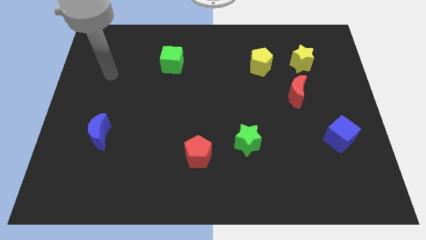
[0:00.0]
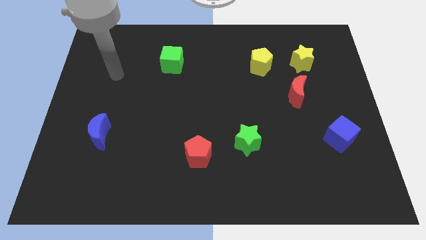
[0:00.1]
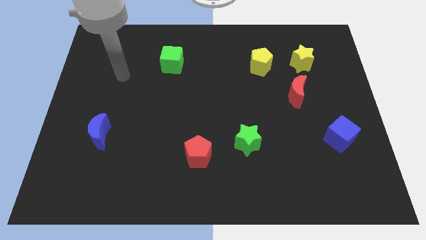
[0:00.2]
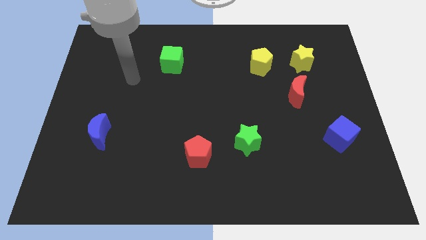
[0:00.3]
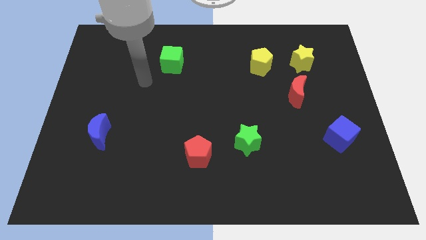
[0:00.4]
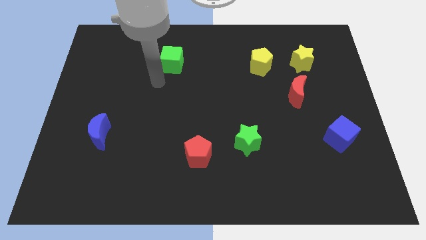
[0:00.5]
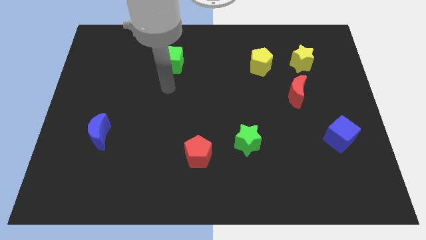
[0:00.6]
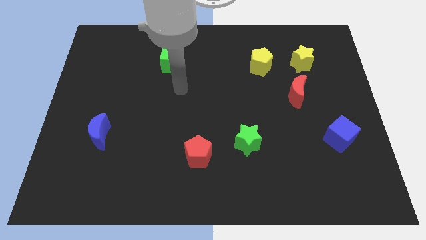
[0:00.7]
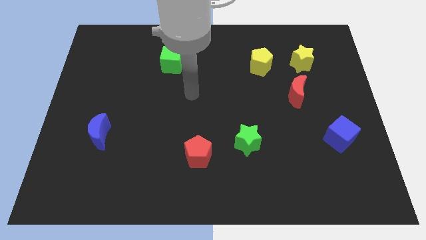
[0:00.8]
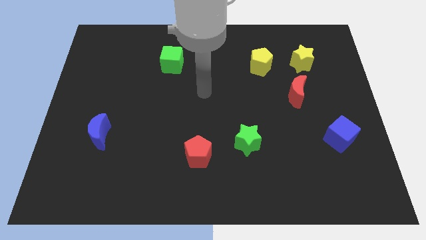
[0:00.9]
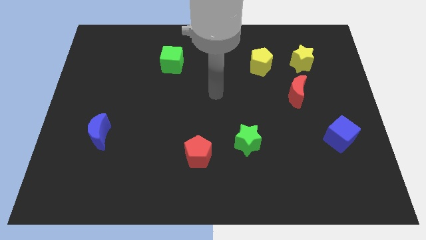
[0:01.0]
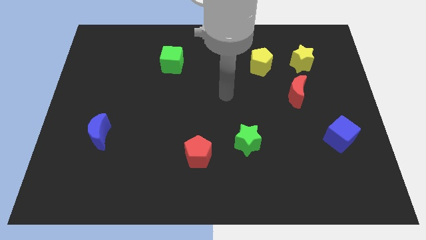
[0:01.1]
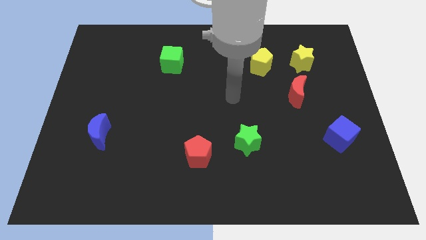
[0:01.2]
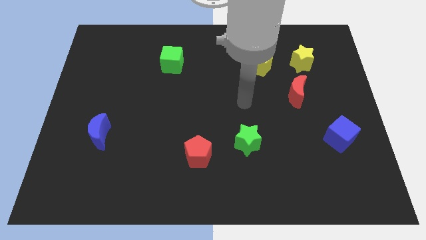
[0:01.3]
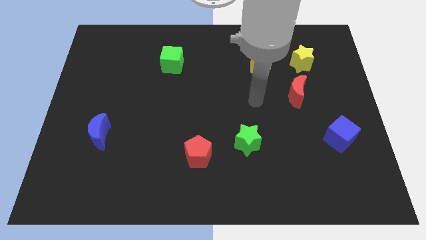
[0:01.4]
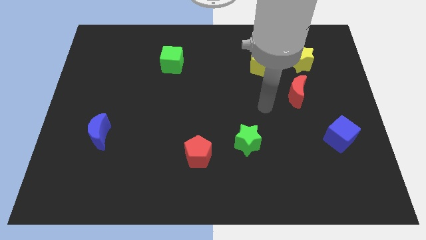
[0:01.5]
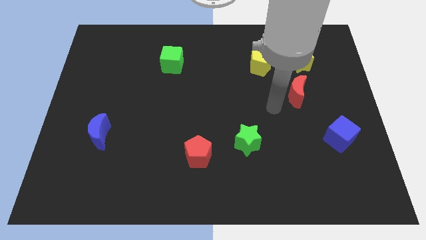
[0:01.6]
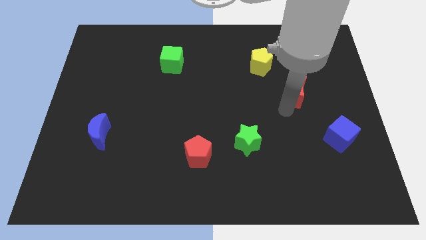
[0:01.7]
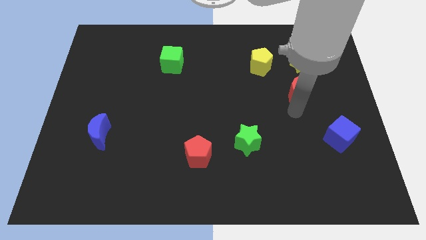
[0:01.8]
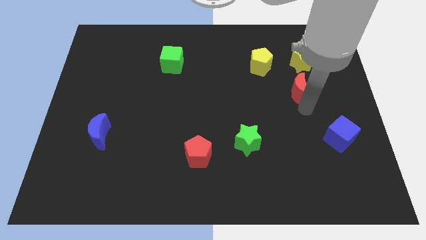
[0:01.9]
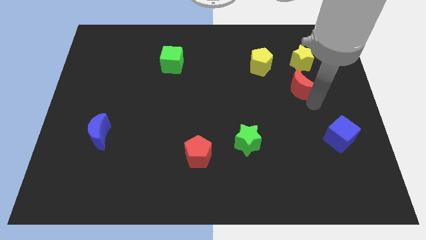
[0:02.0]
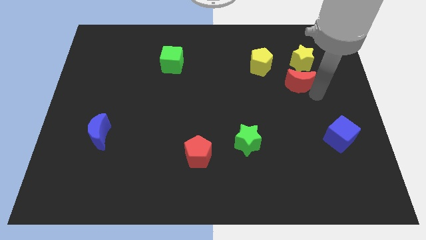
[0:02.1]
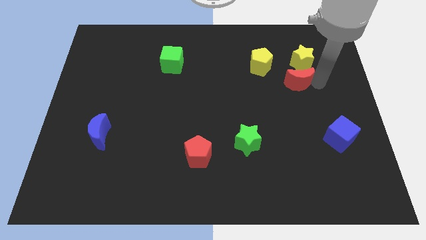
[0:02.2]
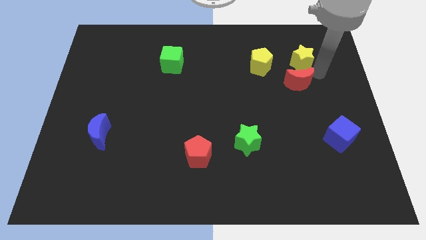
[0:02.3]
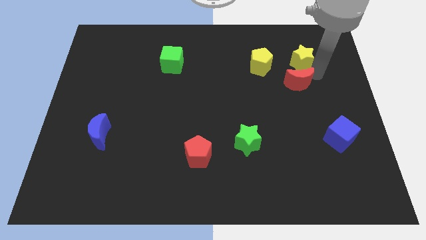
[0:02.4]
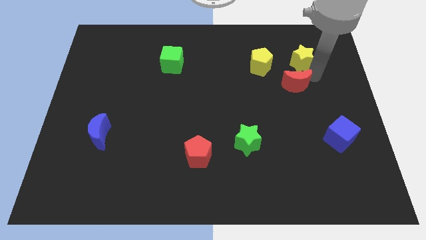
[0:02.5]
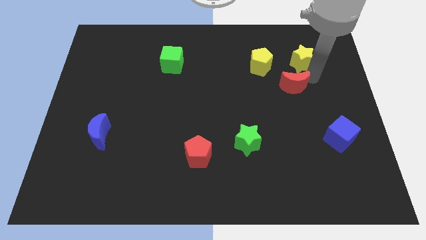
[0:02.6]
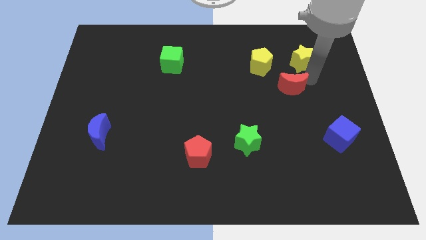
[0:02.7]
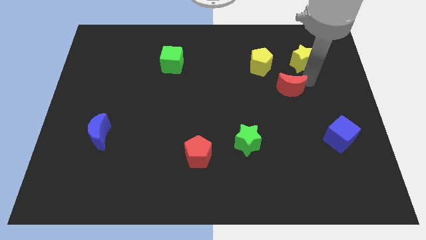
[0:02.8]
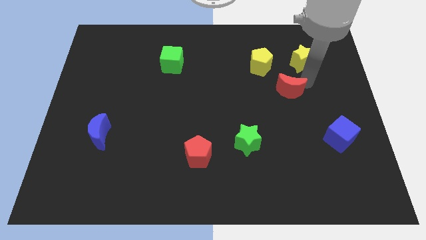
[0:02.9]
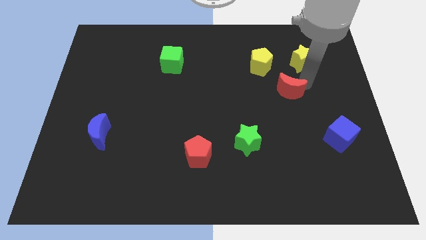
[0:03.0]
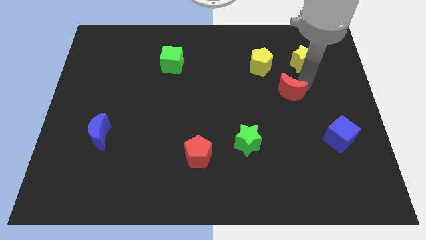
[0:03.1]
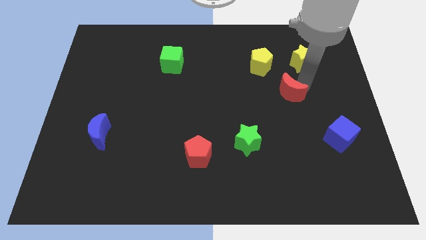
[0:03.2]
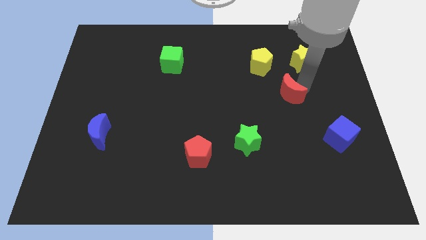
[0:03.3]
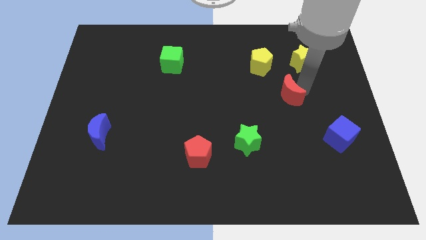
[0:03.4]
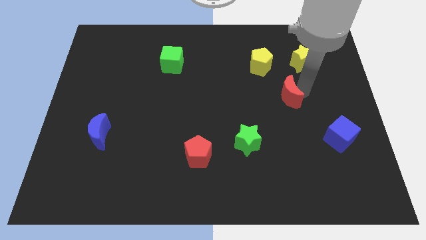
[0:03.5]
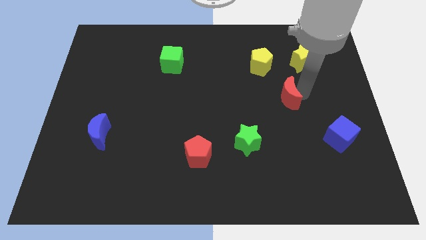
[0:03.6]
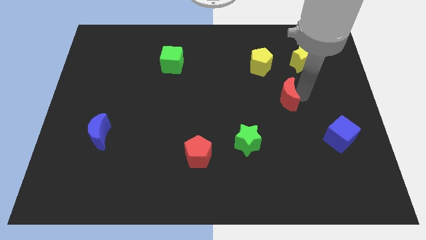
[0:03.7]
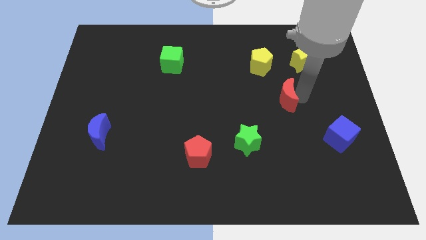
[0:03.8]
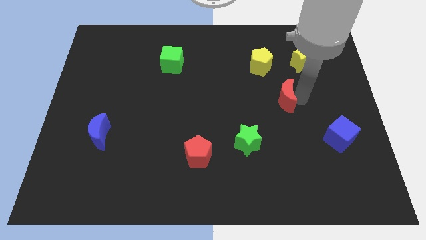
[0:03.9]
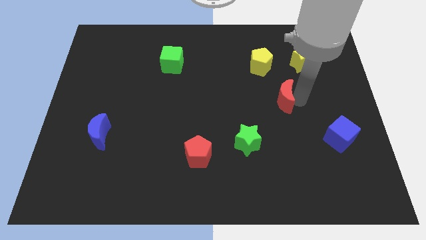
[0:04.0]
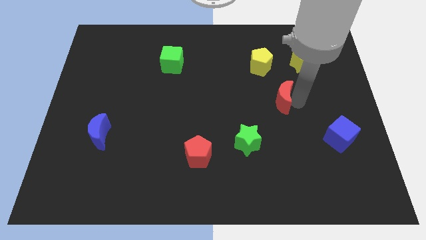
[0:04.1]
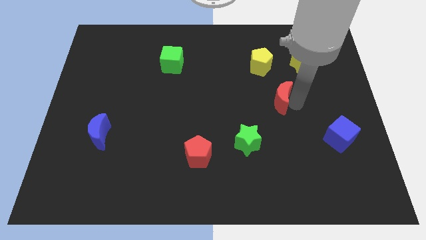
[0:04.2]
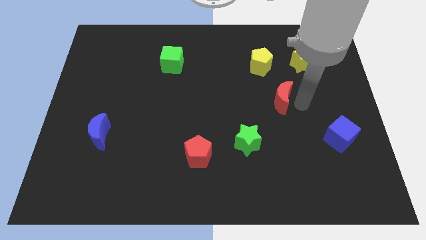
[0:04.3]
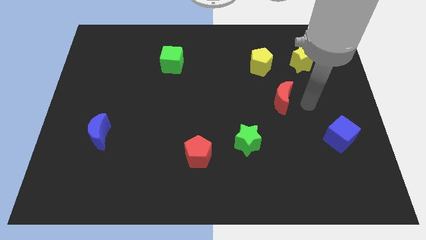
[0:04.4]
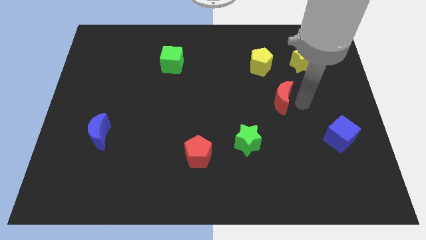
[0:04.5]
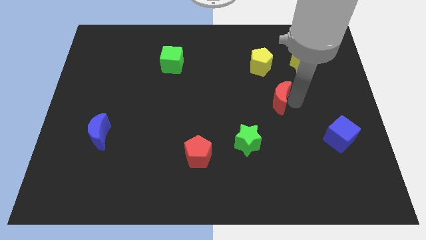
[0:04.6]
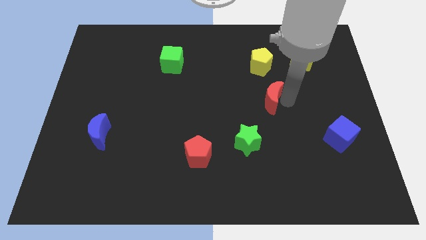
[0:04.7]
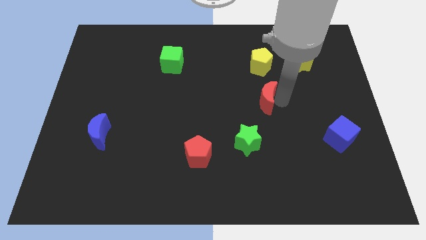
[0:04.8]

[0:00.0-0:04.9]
push the red moon a little left

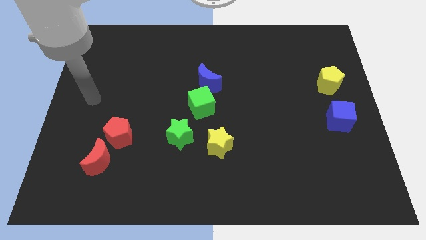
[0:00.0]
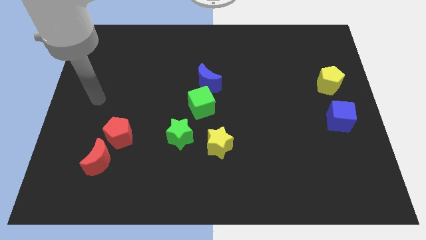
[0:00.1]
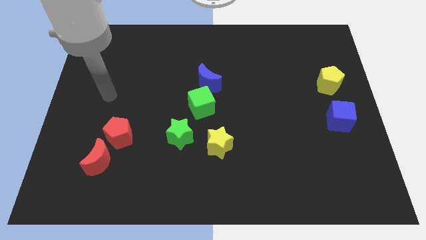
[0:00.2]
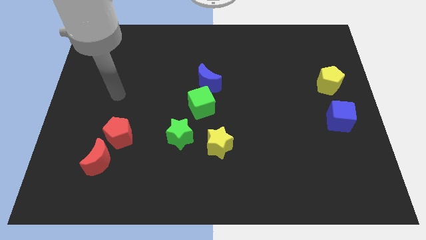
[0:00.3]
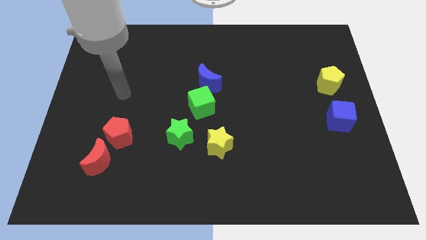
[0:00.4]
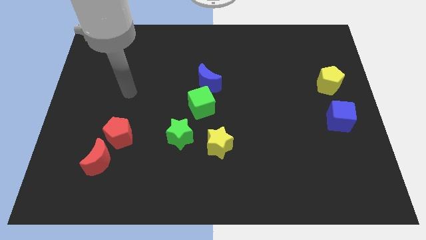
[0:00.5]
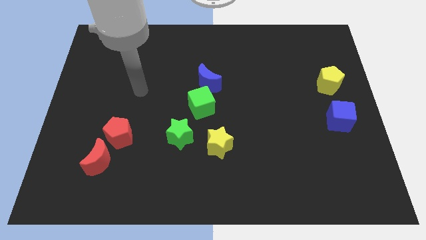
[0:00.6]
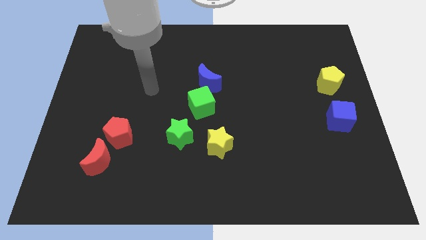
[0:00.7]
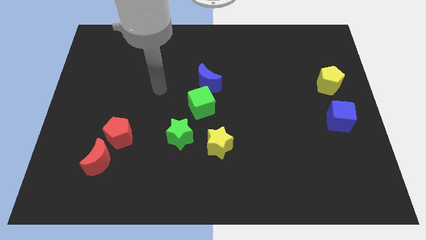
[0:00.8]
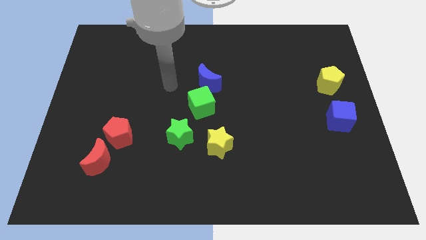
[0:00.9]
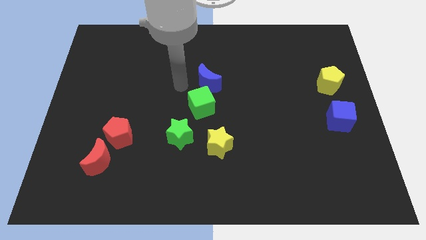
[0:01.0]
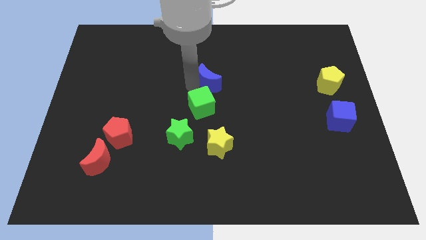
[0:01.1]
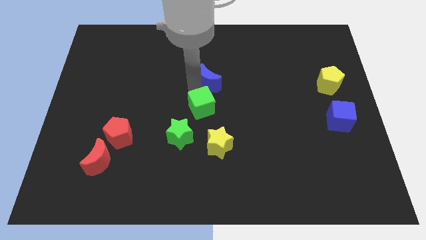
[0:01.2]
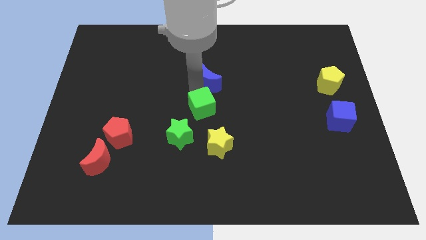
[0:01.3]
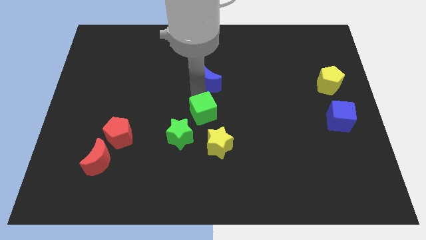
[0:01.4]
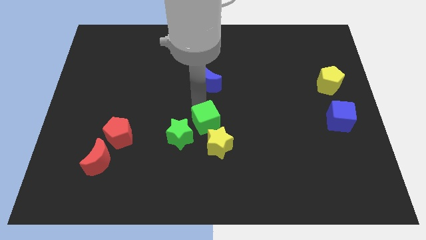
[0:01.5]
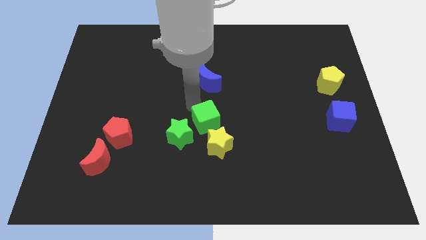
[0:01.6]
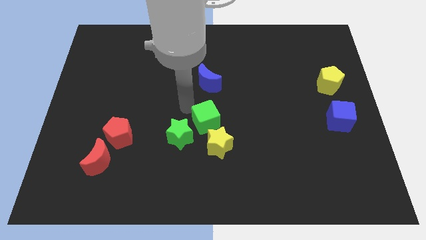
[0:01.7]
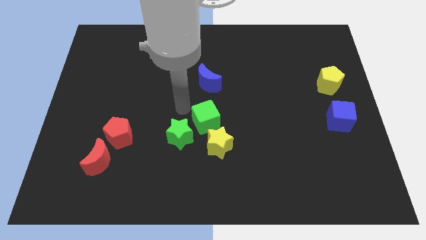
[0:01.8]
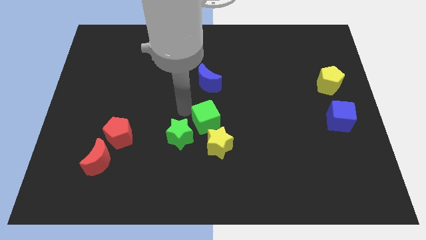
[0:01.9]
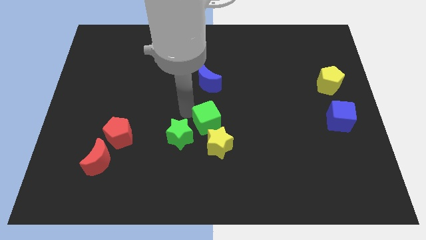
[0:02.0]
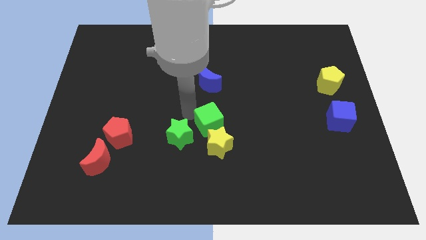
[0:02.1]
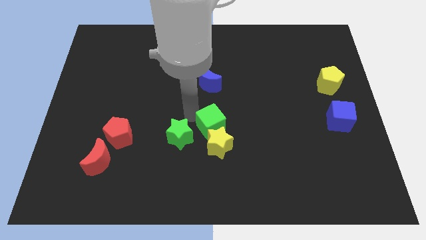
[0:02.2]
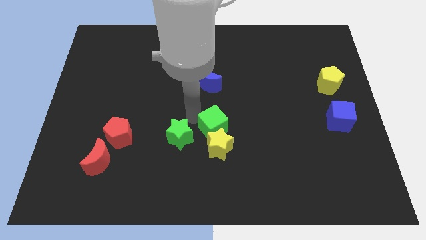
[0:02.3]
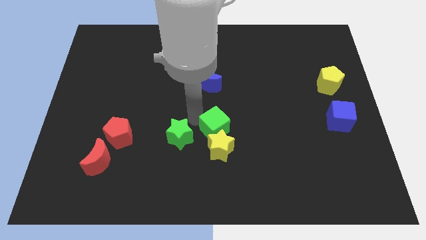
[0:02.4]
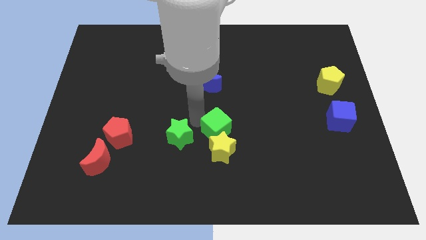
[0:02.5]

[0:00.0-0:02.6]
push the green cube diagonally down and to the right slightly

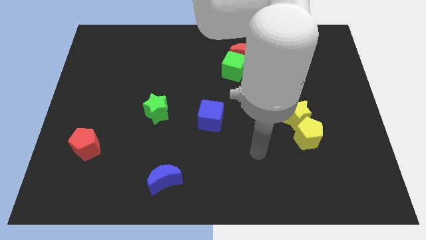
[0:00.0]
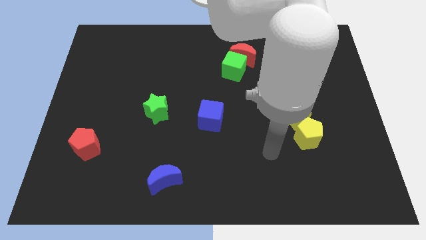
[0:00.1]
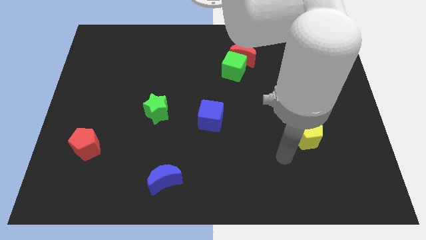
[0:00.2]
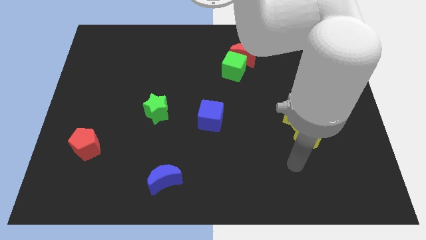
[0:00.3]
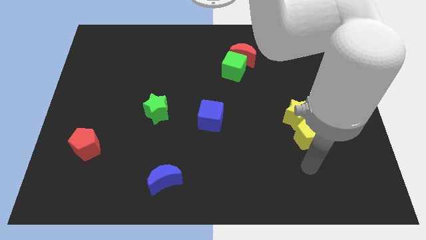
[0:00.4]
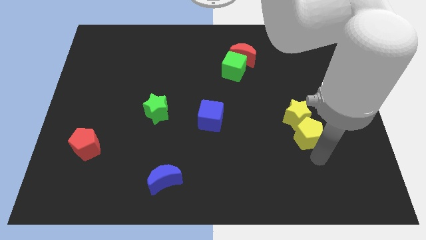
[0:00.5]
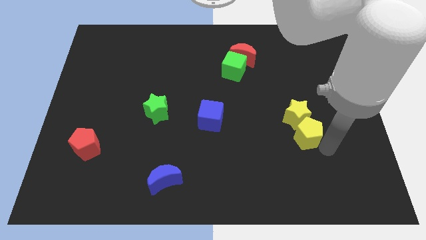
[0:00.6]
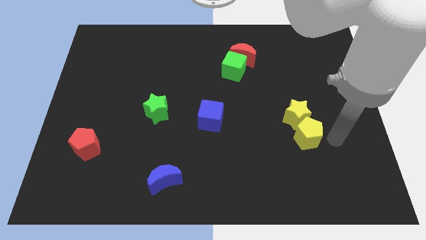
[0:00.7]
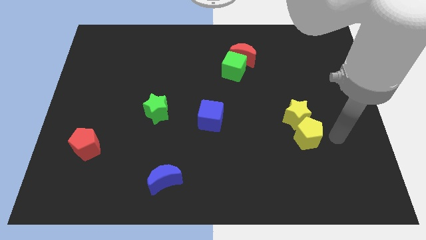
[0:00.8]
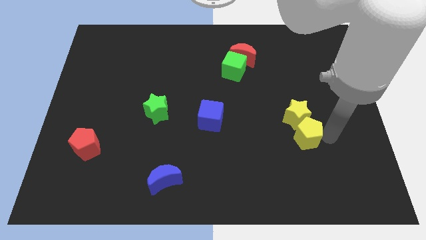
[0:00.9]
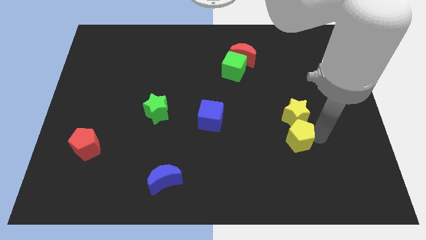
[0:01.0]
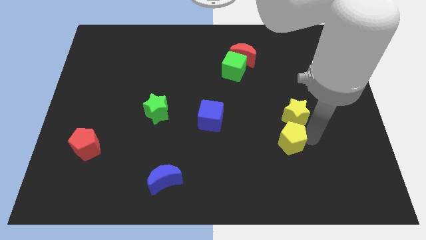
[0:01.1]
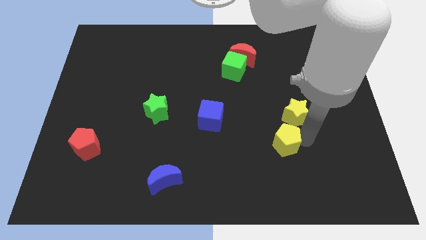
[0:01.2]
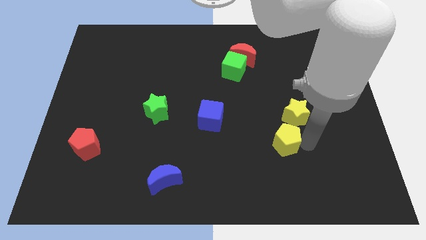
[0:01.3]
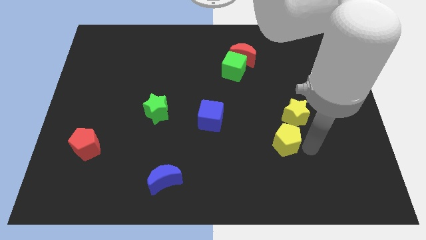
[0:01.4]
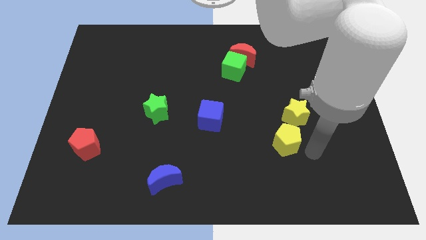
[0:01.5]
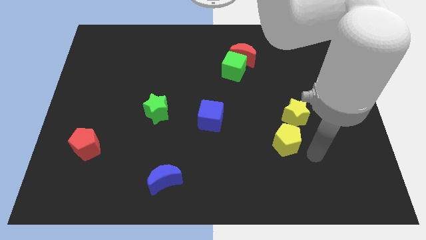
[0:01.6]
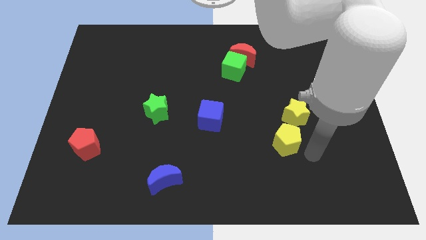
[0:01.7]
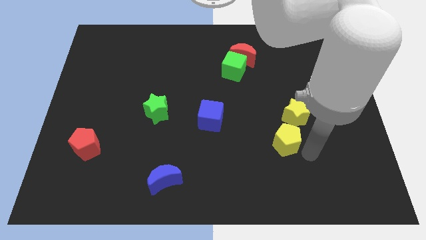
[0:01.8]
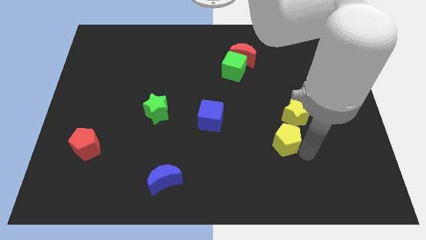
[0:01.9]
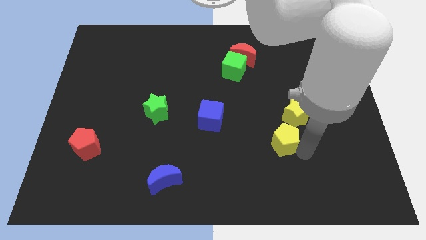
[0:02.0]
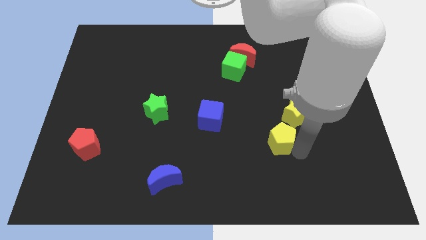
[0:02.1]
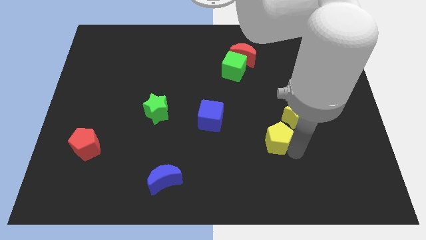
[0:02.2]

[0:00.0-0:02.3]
slide the yellow pentagon a bit to the left
